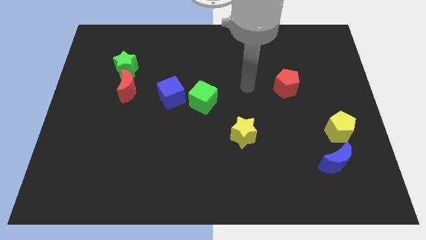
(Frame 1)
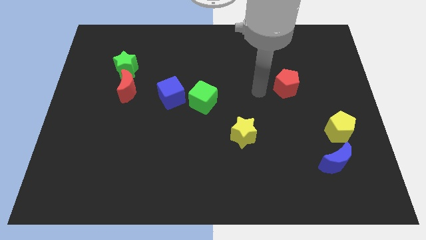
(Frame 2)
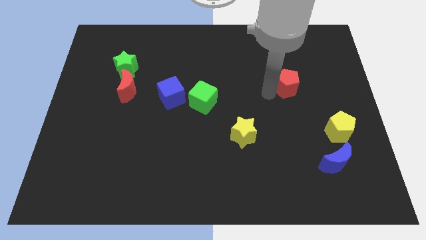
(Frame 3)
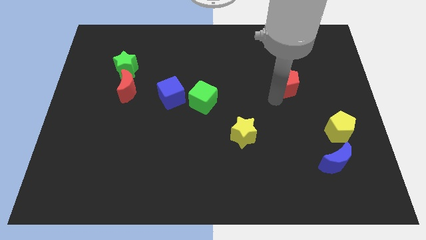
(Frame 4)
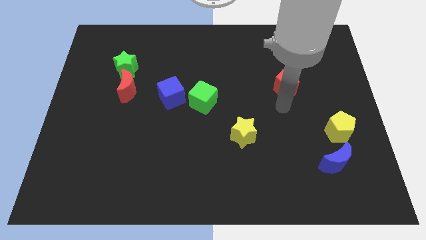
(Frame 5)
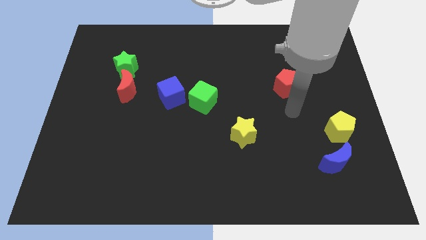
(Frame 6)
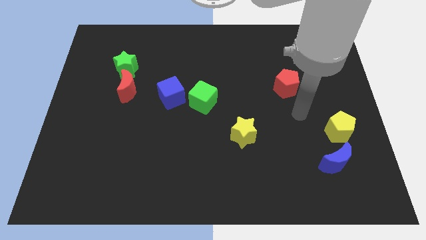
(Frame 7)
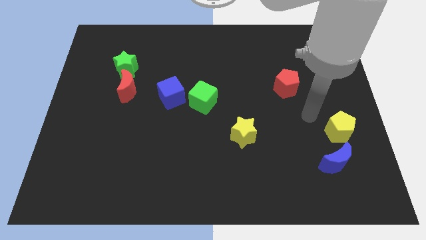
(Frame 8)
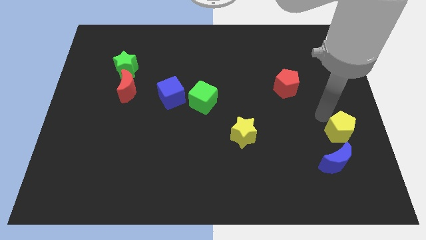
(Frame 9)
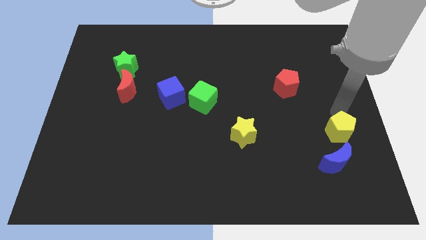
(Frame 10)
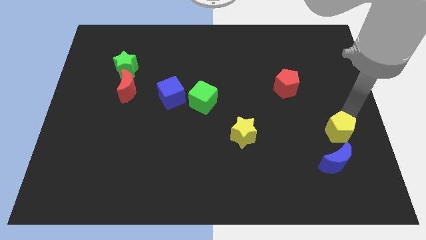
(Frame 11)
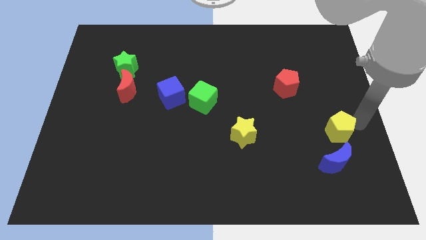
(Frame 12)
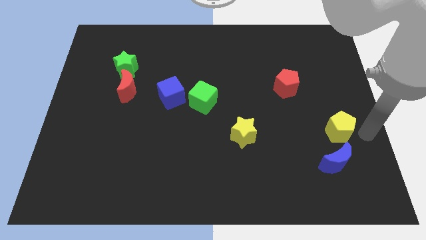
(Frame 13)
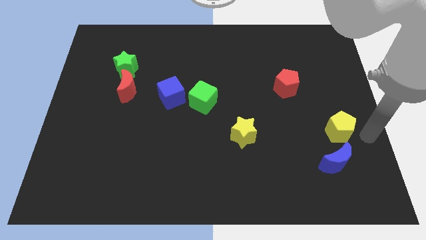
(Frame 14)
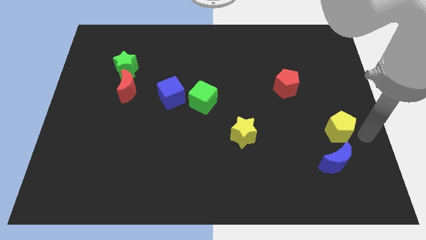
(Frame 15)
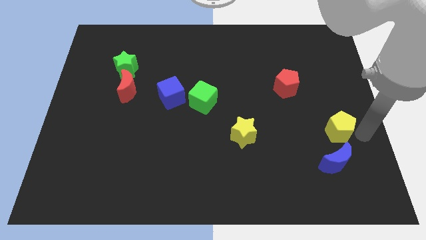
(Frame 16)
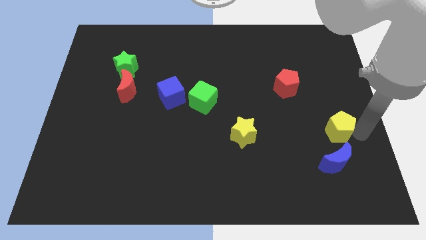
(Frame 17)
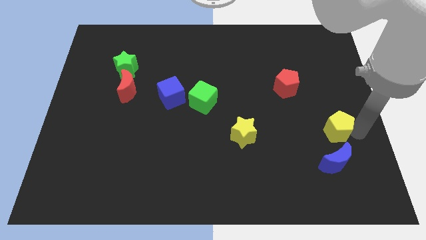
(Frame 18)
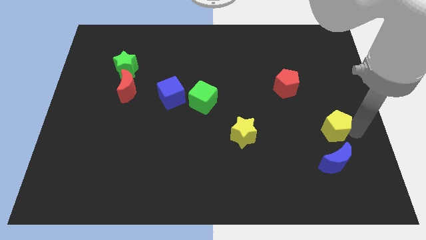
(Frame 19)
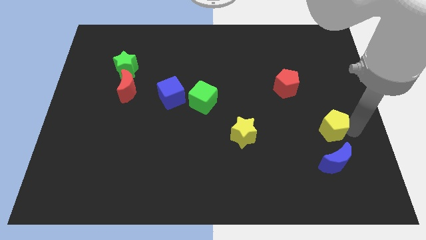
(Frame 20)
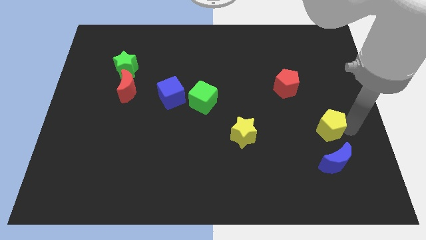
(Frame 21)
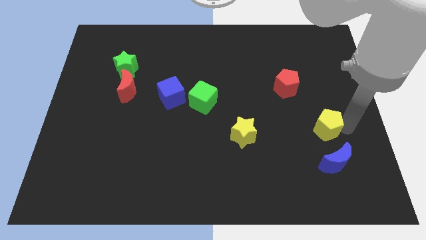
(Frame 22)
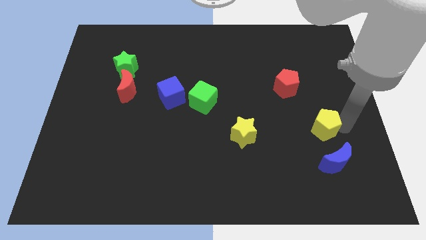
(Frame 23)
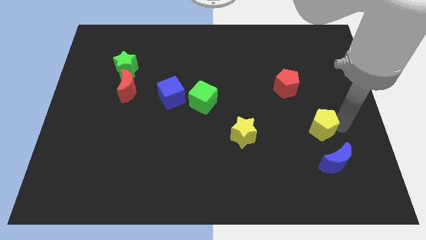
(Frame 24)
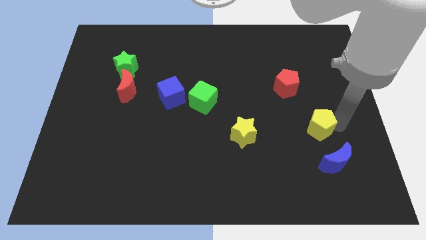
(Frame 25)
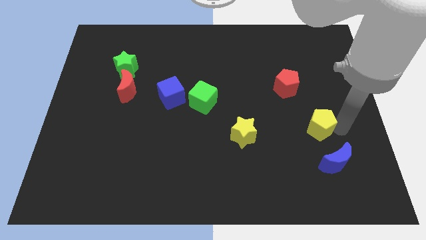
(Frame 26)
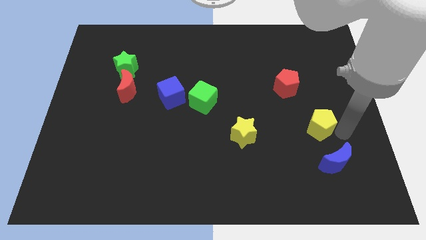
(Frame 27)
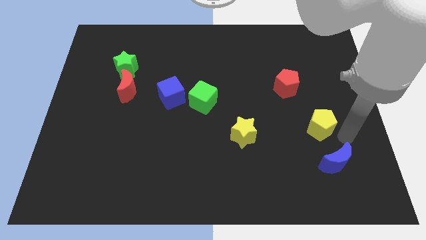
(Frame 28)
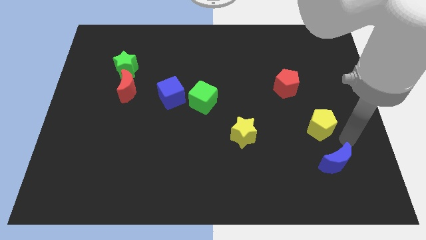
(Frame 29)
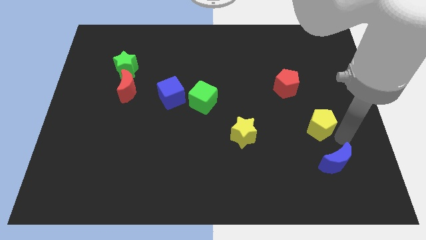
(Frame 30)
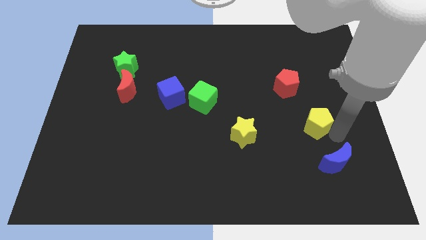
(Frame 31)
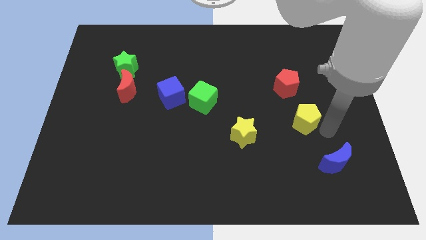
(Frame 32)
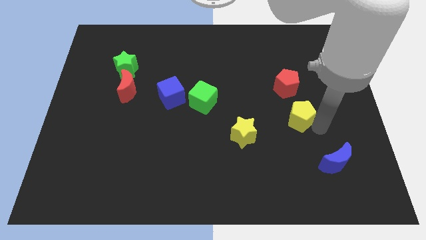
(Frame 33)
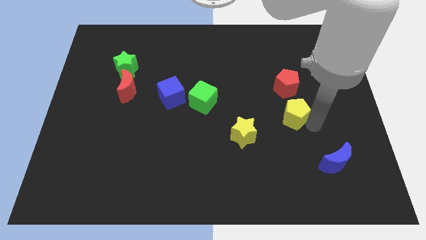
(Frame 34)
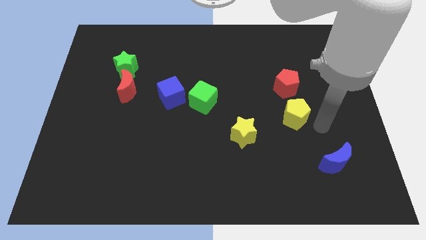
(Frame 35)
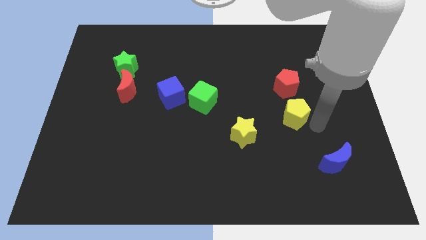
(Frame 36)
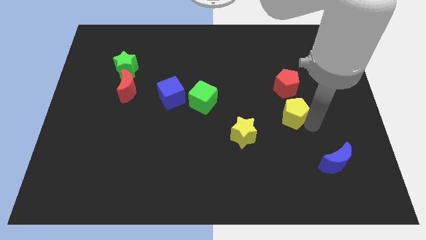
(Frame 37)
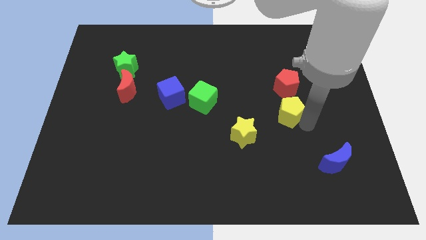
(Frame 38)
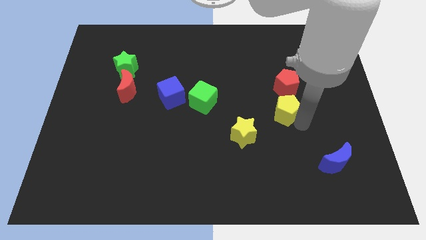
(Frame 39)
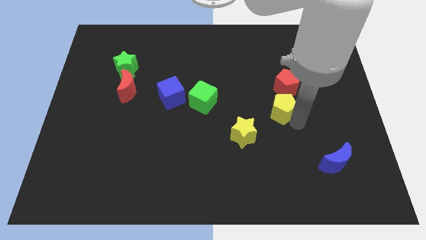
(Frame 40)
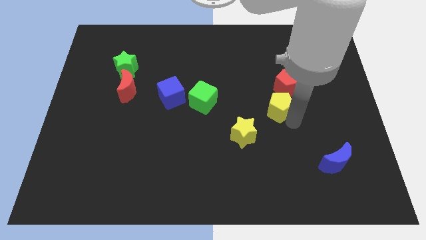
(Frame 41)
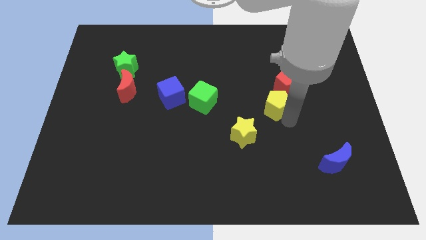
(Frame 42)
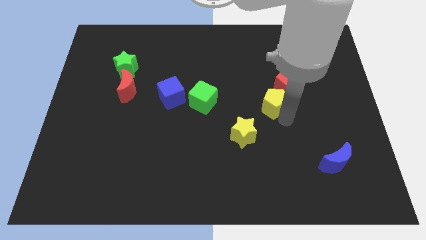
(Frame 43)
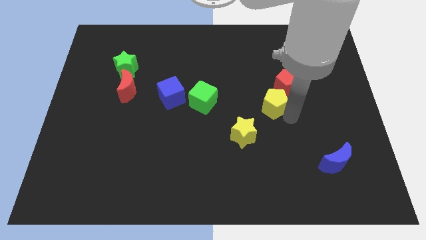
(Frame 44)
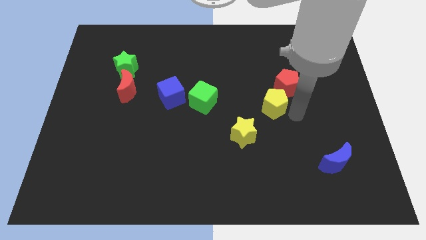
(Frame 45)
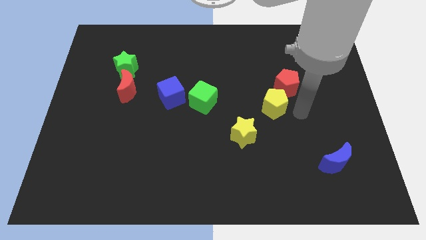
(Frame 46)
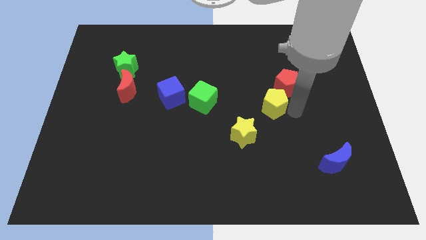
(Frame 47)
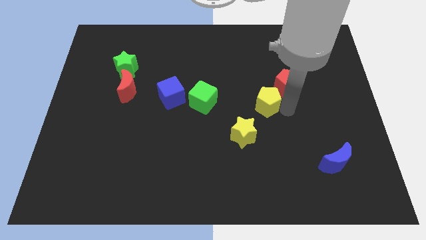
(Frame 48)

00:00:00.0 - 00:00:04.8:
move the yellow pentagon right of the green cube

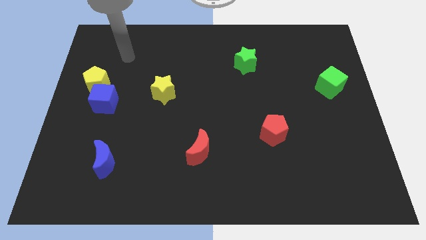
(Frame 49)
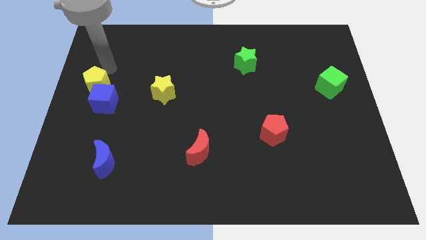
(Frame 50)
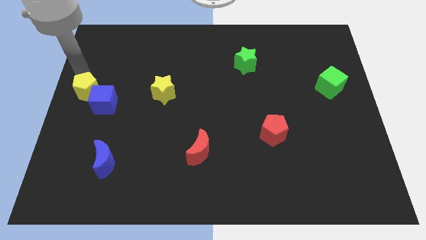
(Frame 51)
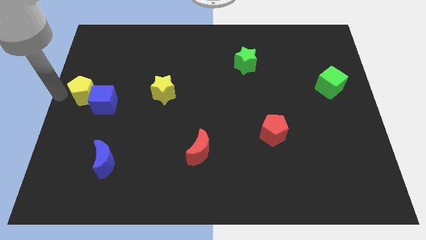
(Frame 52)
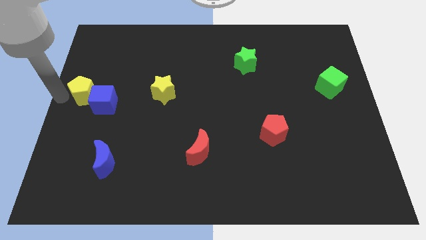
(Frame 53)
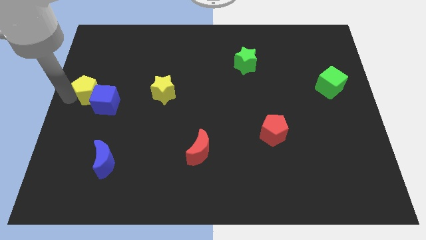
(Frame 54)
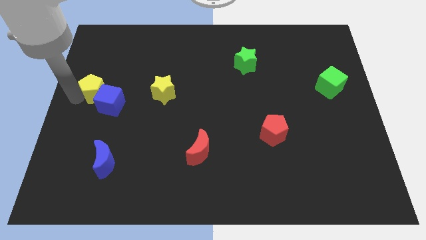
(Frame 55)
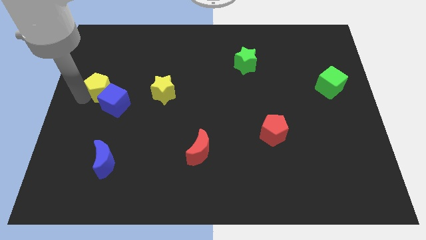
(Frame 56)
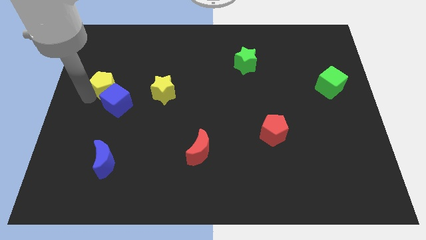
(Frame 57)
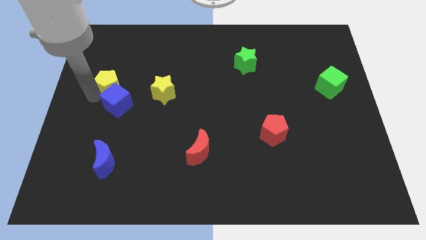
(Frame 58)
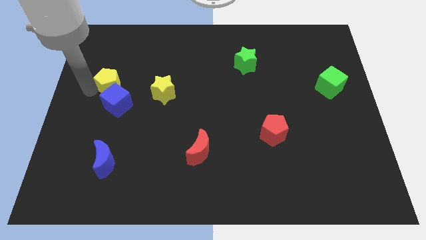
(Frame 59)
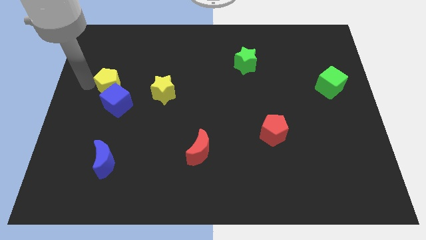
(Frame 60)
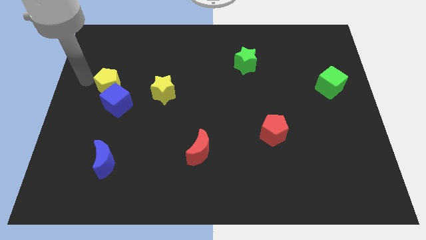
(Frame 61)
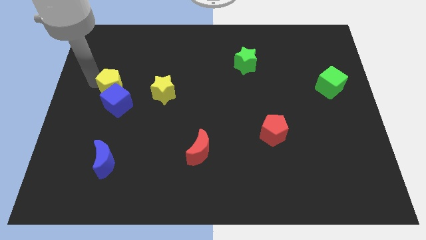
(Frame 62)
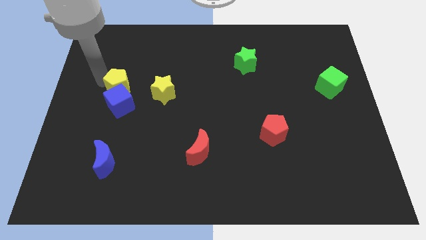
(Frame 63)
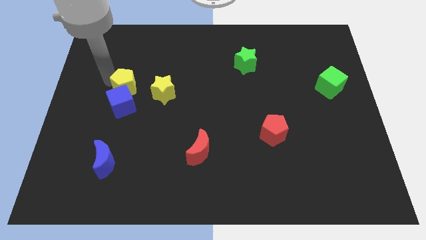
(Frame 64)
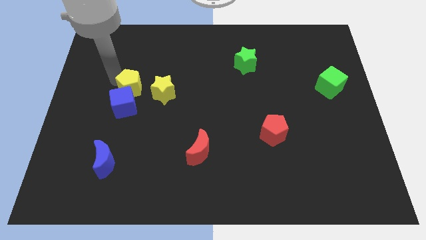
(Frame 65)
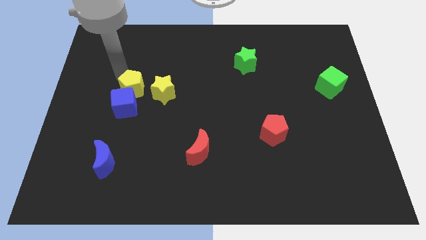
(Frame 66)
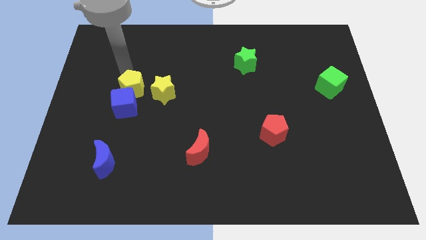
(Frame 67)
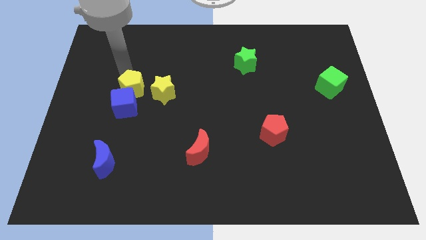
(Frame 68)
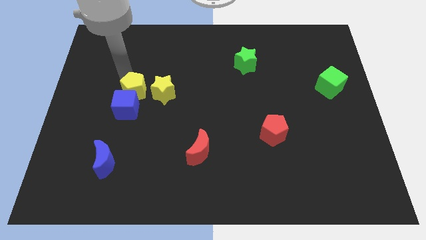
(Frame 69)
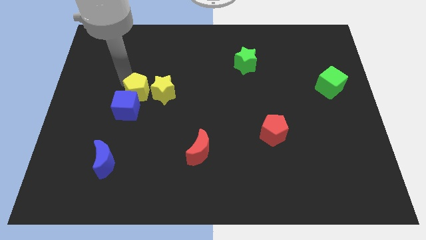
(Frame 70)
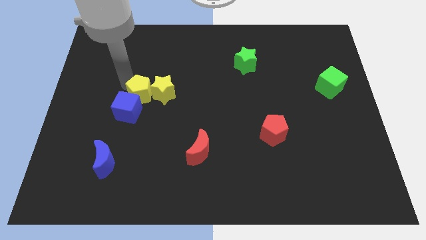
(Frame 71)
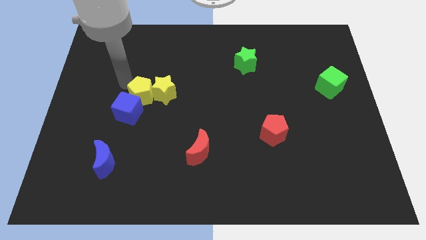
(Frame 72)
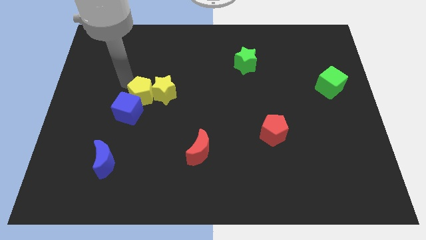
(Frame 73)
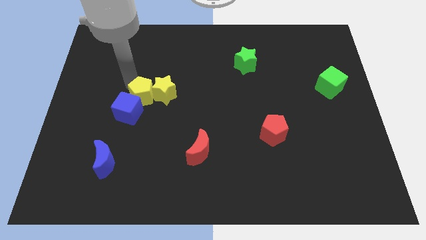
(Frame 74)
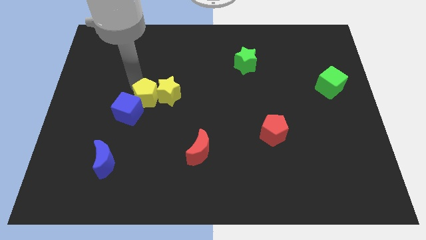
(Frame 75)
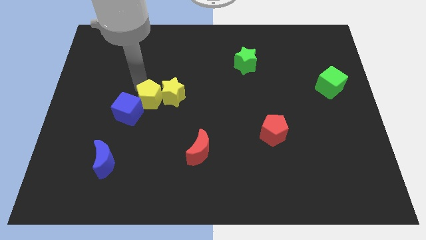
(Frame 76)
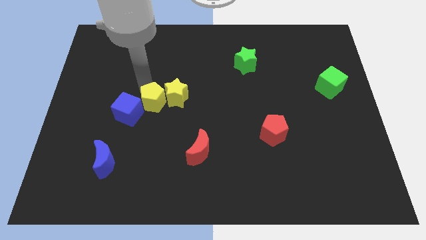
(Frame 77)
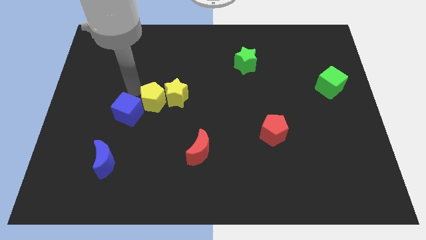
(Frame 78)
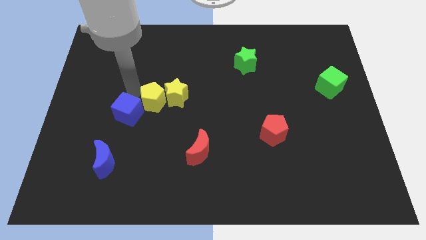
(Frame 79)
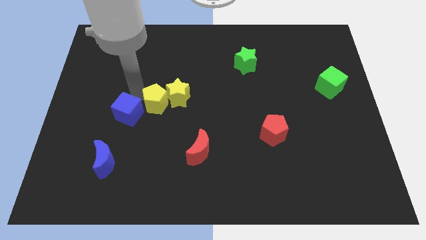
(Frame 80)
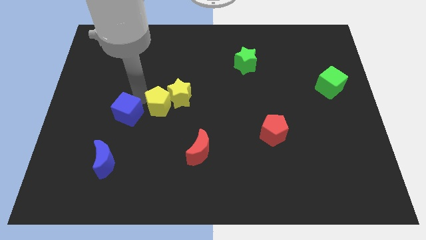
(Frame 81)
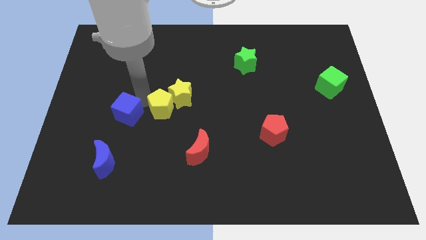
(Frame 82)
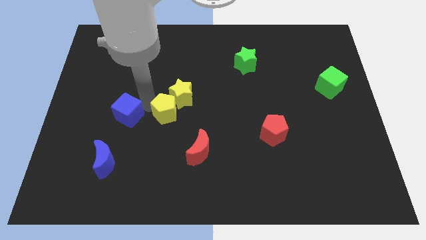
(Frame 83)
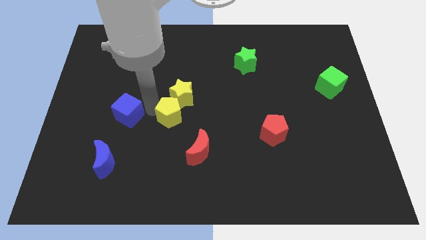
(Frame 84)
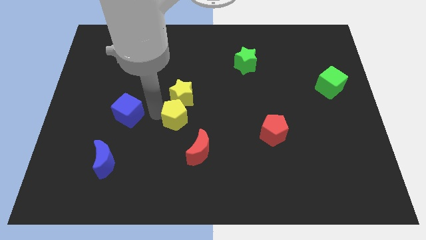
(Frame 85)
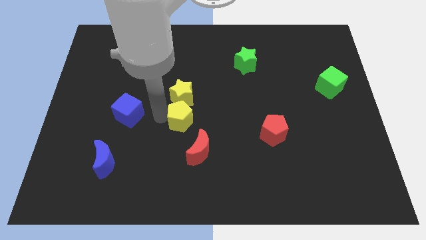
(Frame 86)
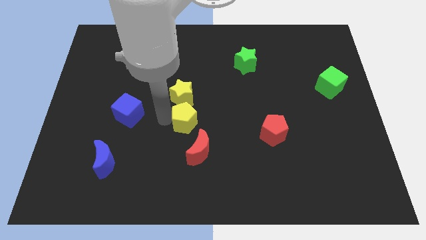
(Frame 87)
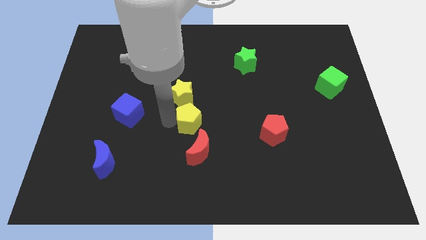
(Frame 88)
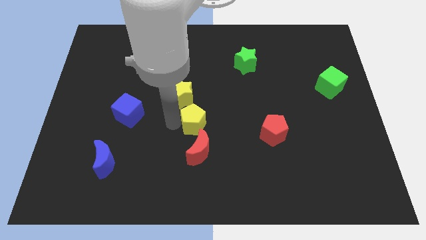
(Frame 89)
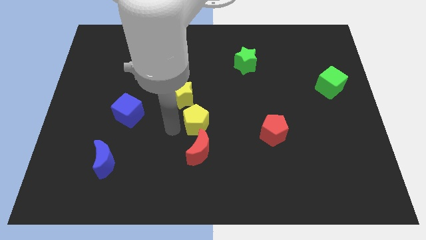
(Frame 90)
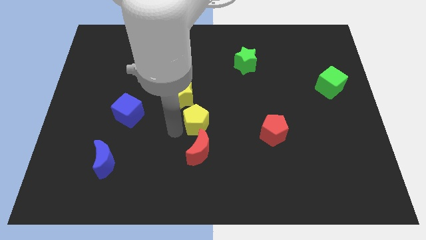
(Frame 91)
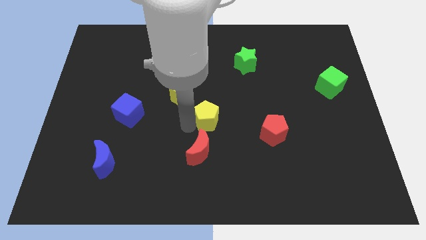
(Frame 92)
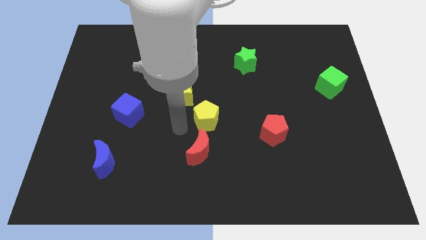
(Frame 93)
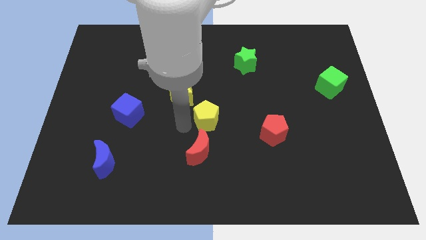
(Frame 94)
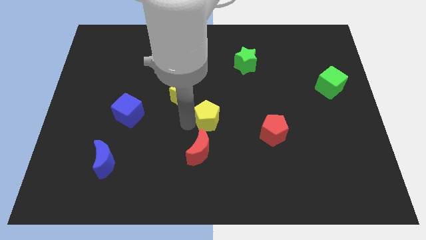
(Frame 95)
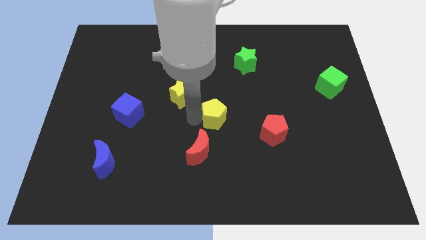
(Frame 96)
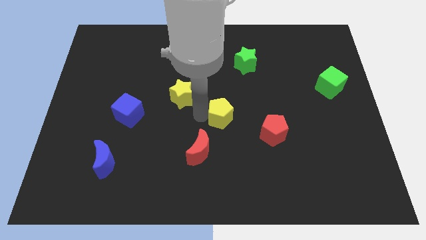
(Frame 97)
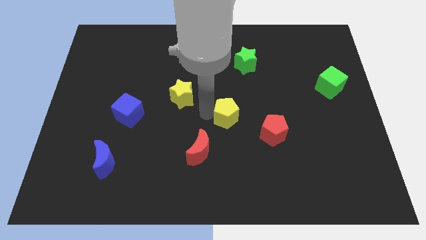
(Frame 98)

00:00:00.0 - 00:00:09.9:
put the yellow pentagon to the top left of the red pentagon
